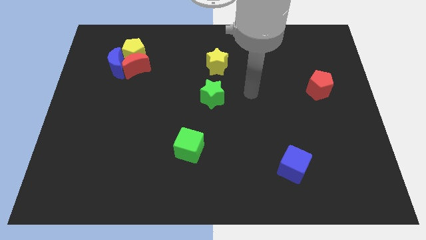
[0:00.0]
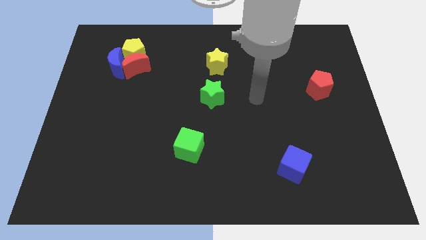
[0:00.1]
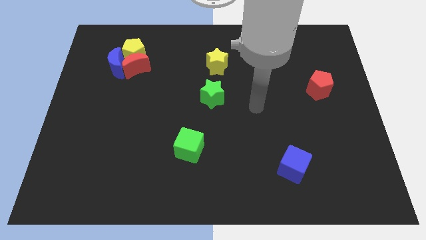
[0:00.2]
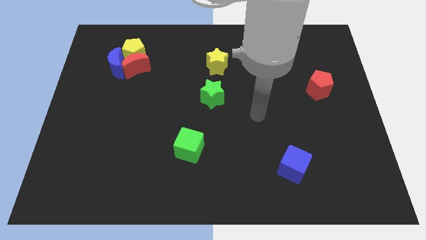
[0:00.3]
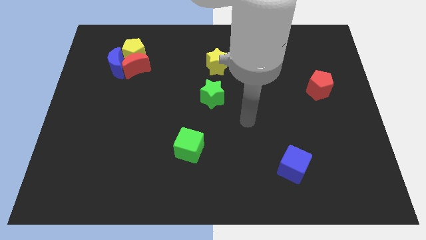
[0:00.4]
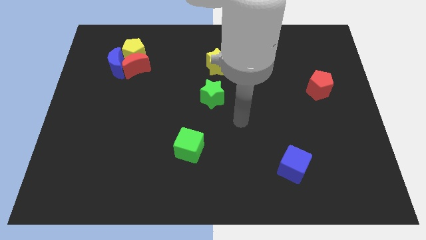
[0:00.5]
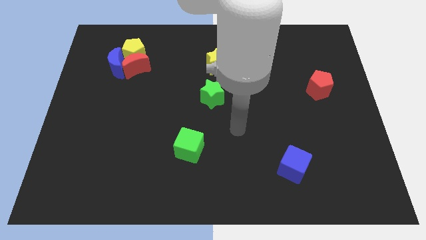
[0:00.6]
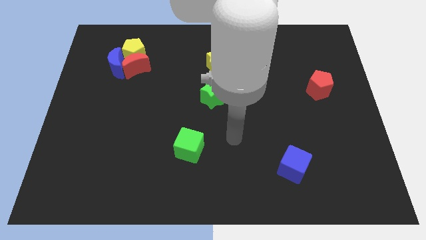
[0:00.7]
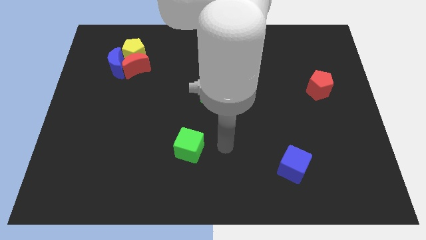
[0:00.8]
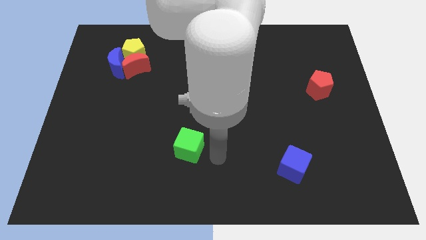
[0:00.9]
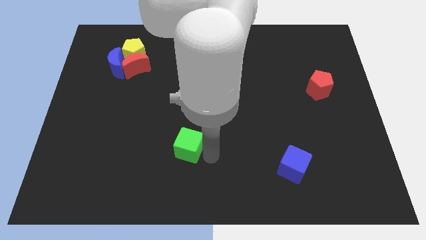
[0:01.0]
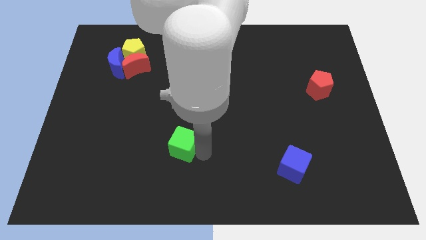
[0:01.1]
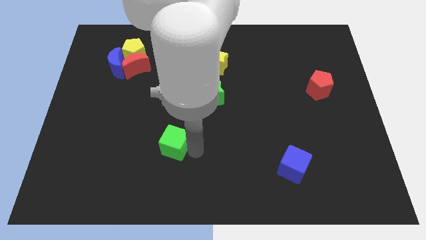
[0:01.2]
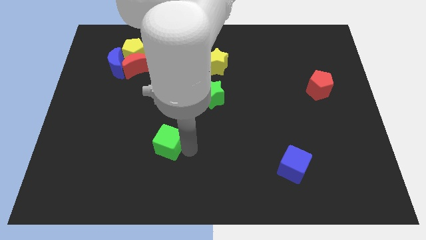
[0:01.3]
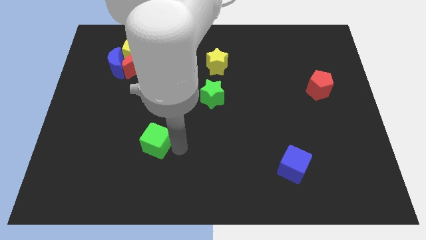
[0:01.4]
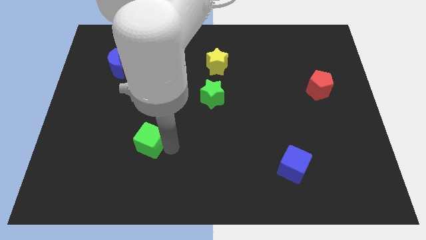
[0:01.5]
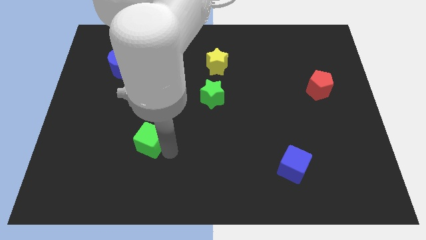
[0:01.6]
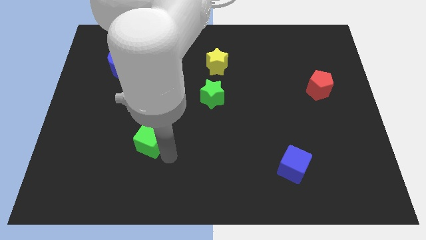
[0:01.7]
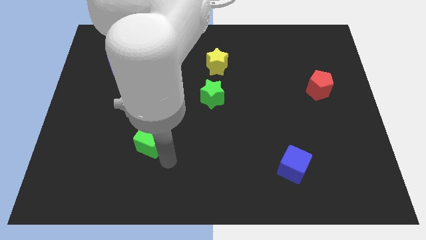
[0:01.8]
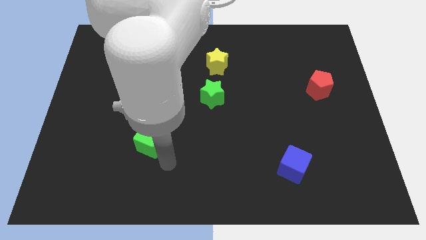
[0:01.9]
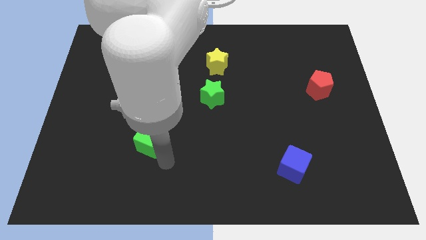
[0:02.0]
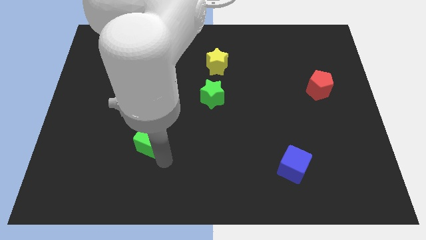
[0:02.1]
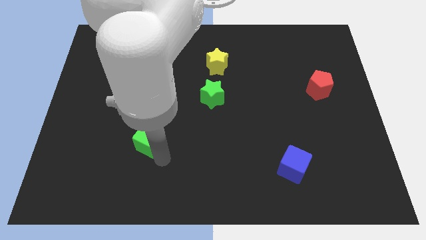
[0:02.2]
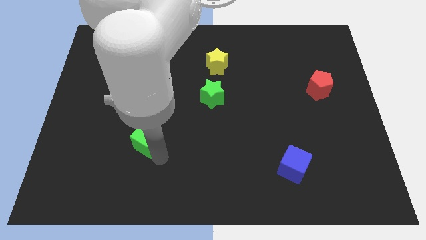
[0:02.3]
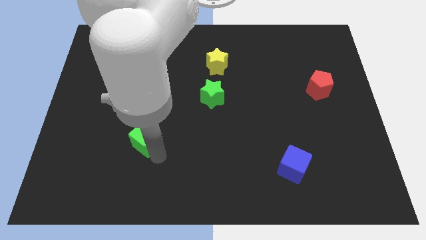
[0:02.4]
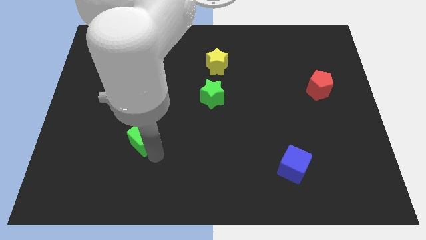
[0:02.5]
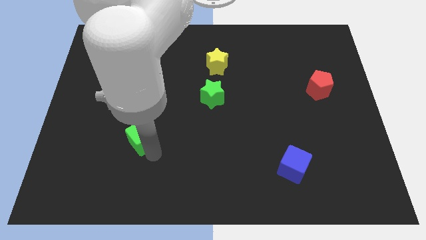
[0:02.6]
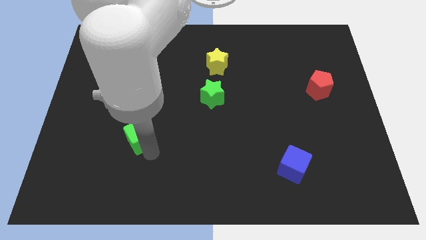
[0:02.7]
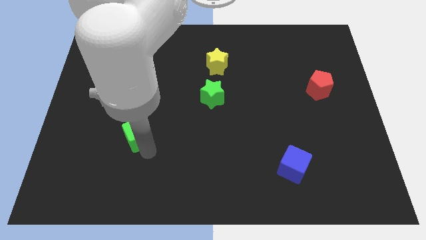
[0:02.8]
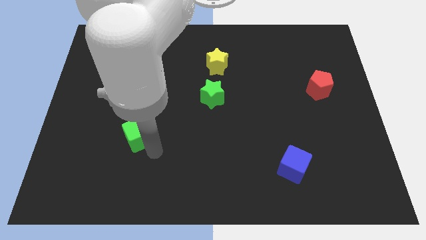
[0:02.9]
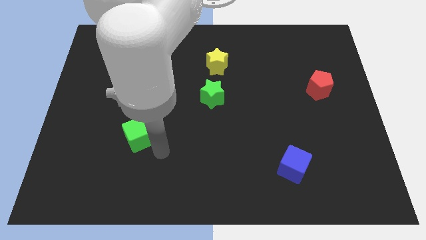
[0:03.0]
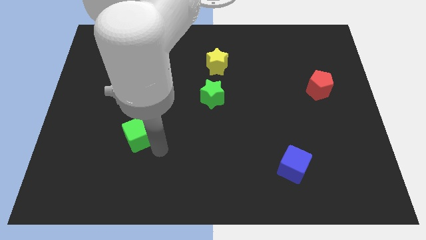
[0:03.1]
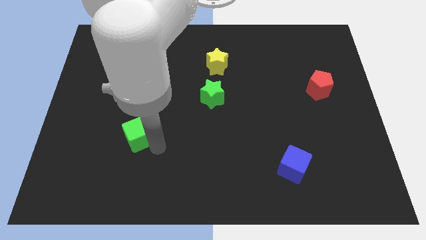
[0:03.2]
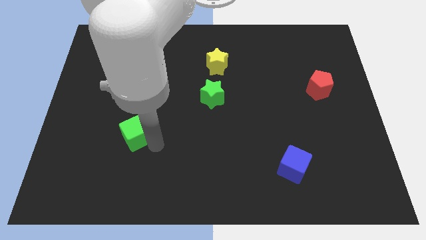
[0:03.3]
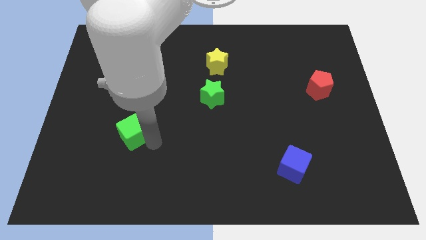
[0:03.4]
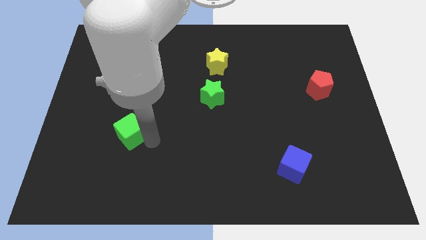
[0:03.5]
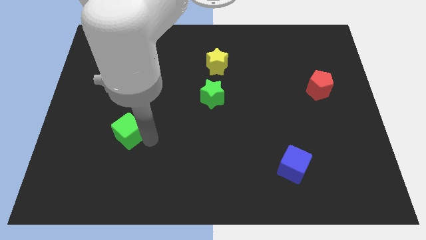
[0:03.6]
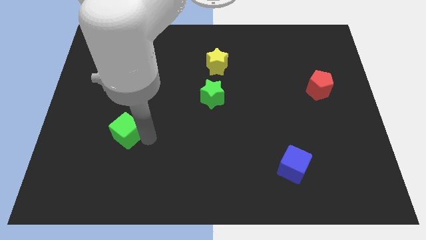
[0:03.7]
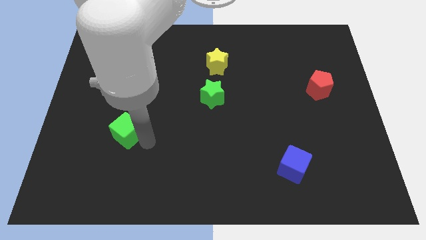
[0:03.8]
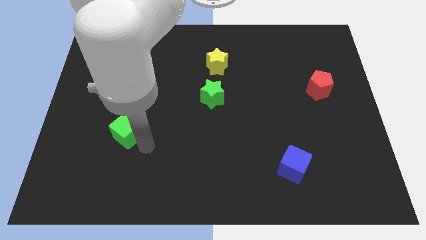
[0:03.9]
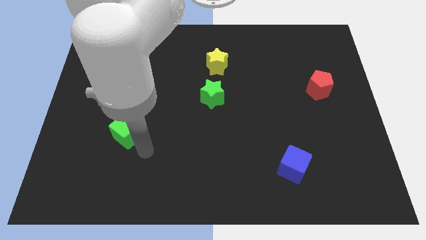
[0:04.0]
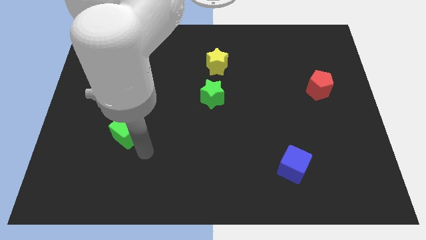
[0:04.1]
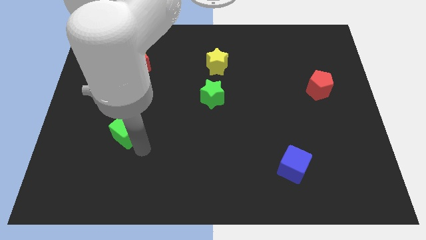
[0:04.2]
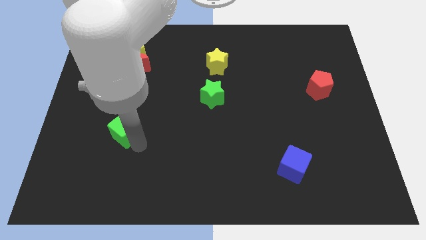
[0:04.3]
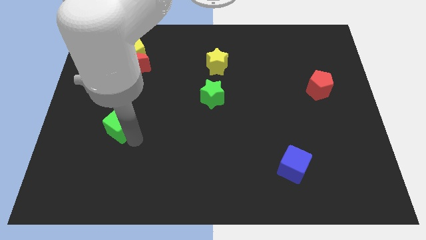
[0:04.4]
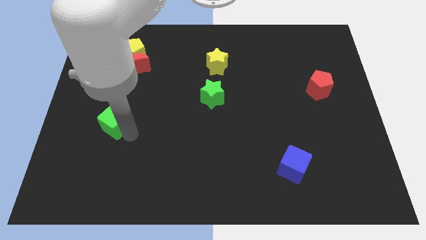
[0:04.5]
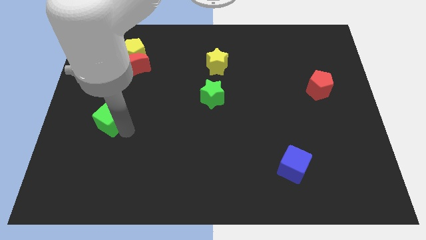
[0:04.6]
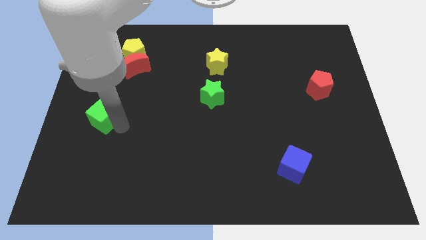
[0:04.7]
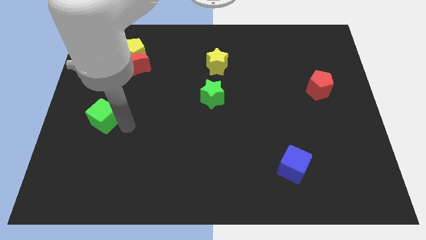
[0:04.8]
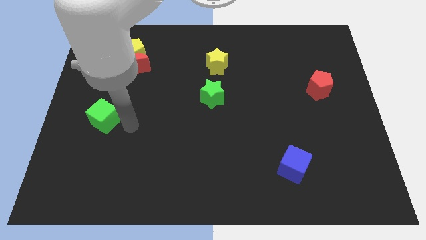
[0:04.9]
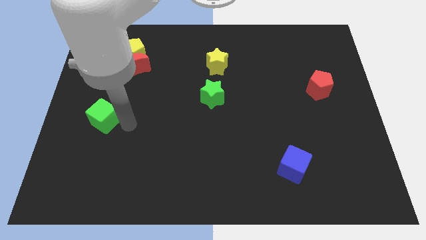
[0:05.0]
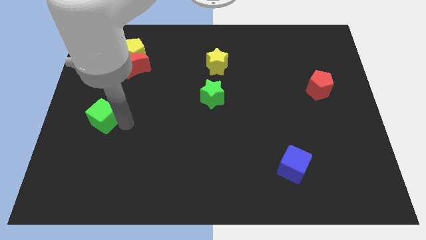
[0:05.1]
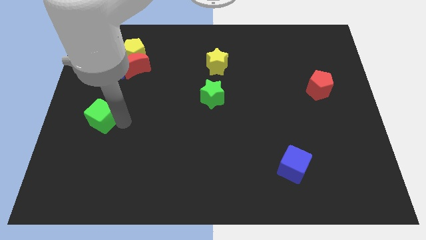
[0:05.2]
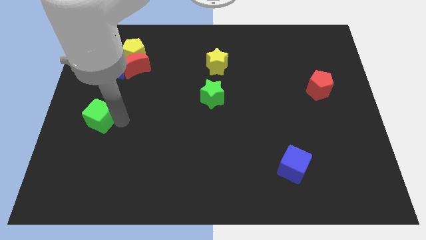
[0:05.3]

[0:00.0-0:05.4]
put the green cube to the left side of the board
